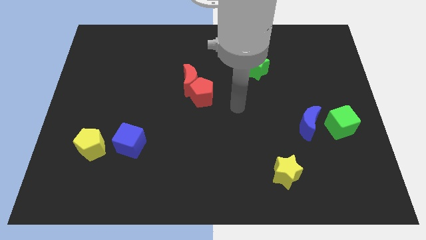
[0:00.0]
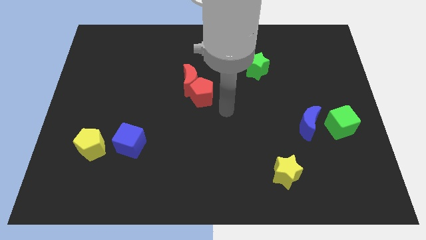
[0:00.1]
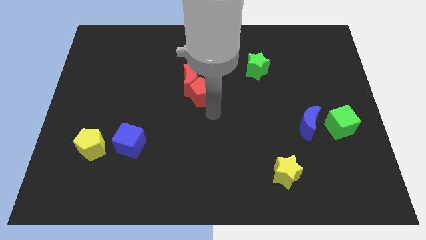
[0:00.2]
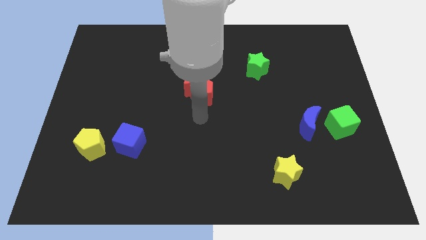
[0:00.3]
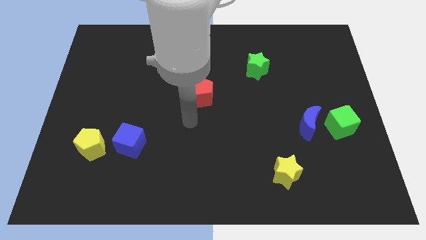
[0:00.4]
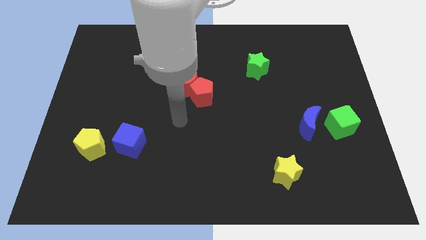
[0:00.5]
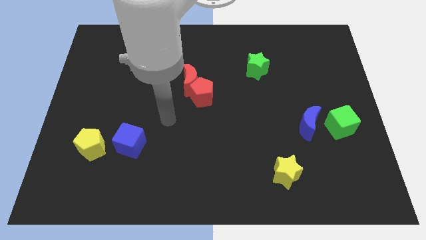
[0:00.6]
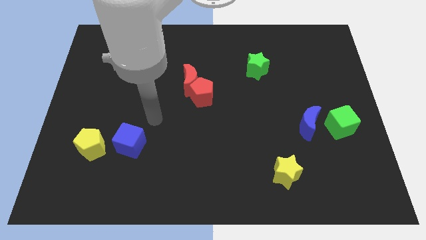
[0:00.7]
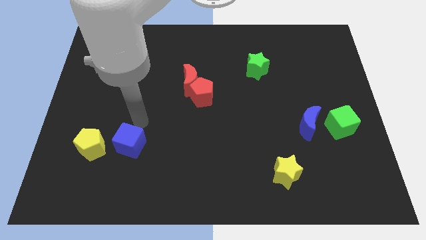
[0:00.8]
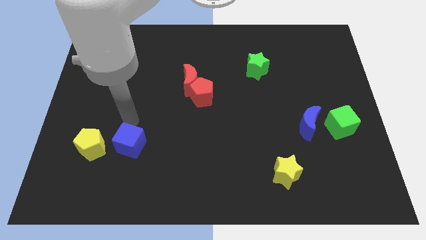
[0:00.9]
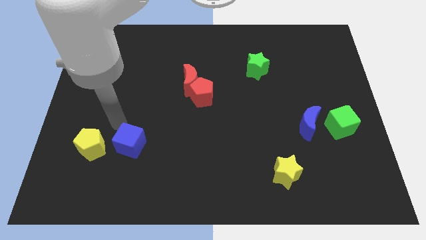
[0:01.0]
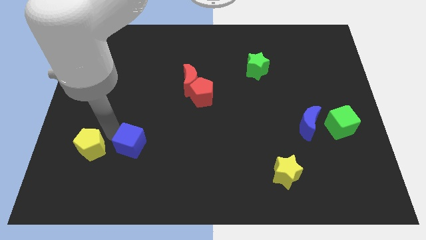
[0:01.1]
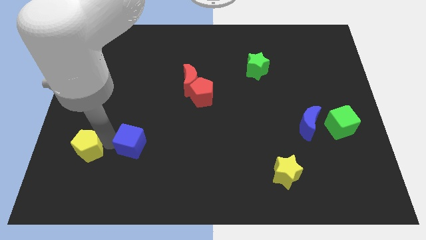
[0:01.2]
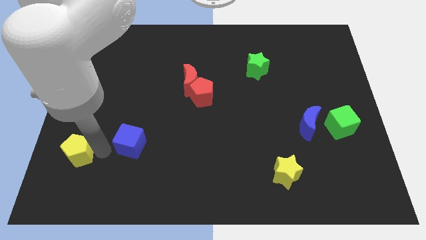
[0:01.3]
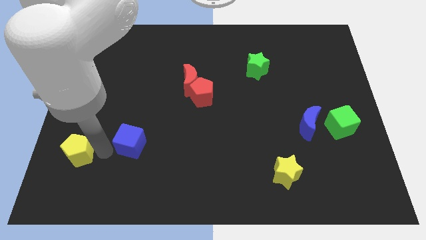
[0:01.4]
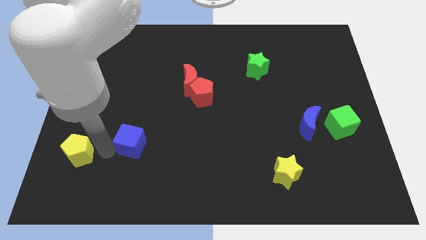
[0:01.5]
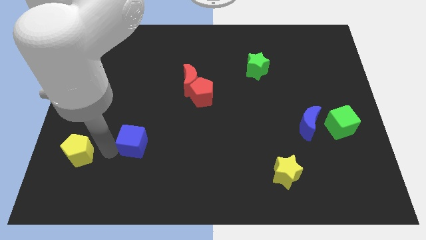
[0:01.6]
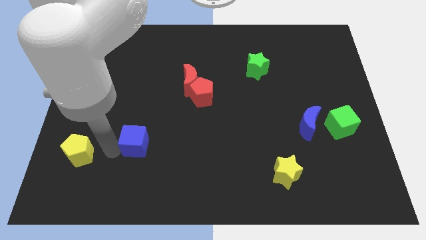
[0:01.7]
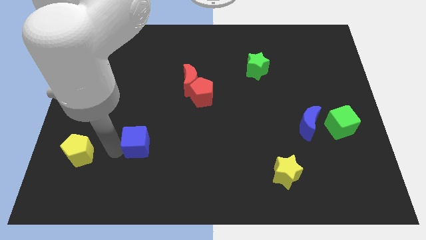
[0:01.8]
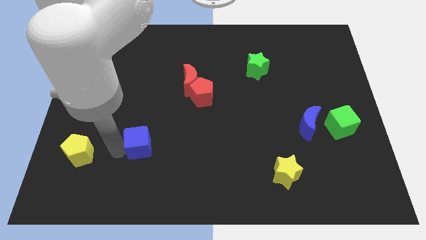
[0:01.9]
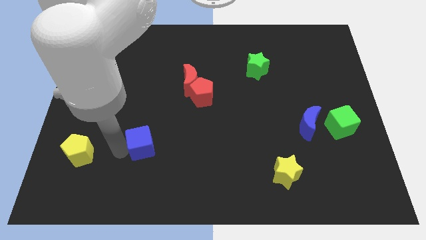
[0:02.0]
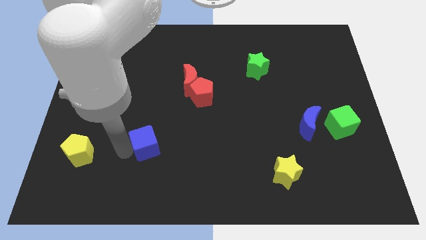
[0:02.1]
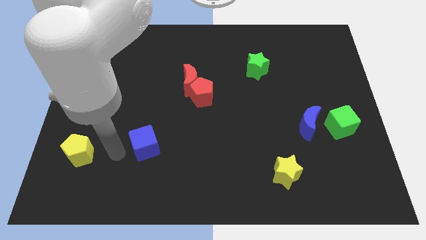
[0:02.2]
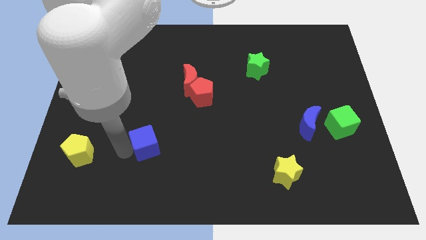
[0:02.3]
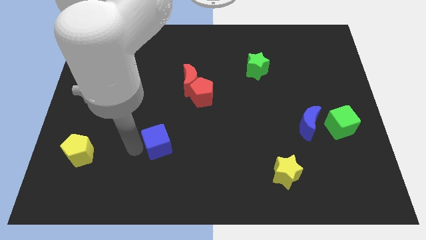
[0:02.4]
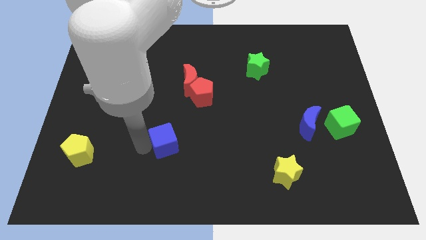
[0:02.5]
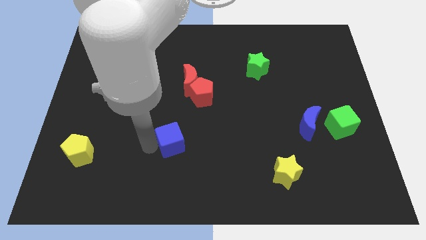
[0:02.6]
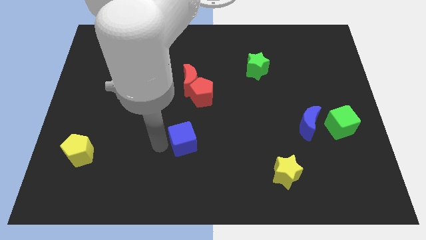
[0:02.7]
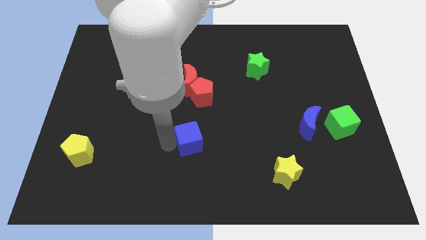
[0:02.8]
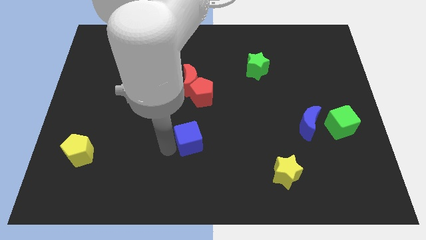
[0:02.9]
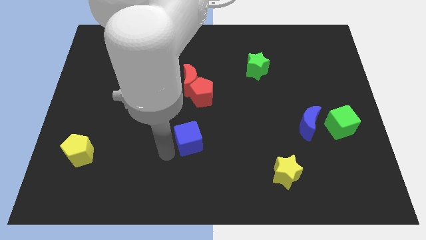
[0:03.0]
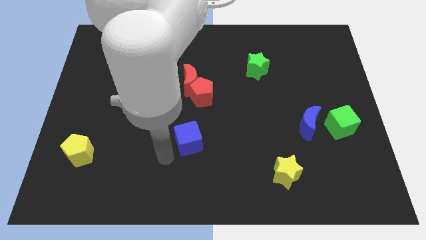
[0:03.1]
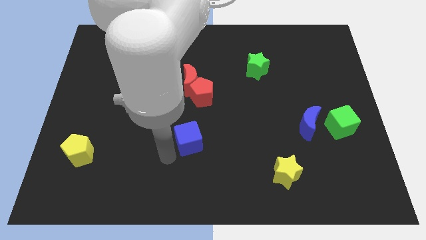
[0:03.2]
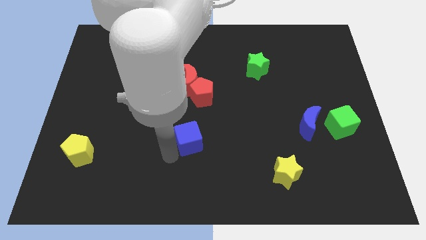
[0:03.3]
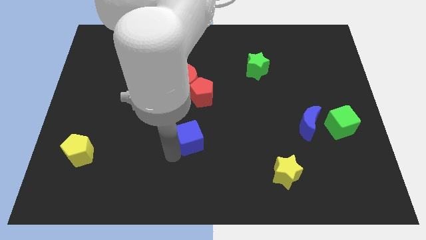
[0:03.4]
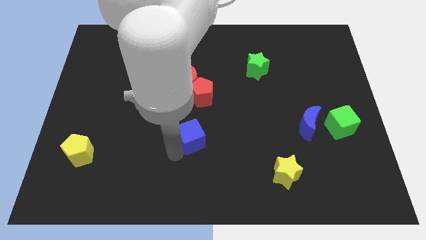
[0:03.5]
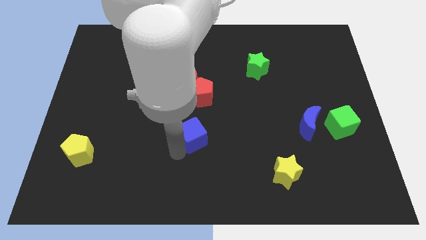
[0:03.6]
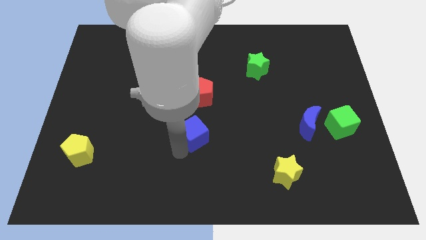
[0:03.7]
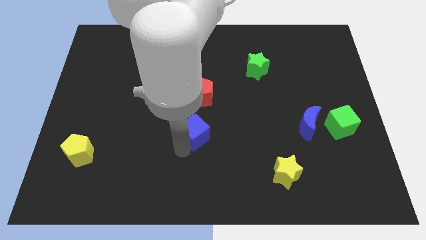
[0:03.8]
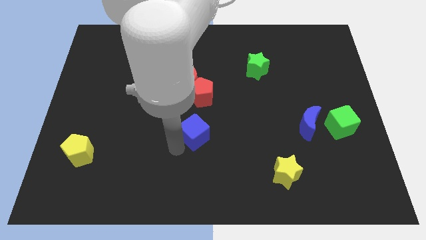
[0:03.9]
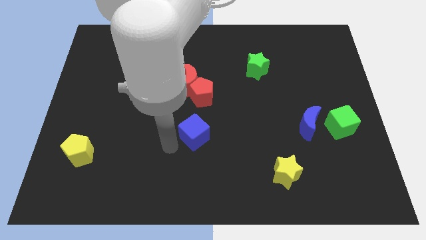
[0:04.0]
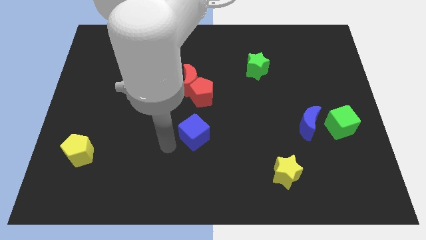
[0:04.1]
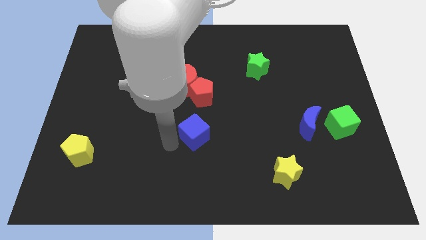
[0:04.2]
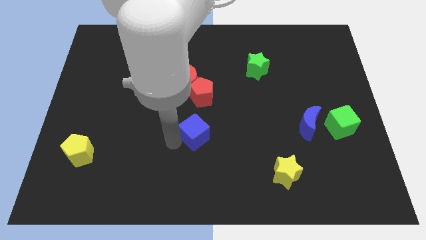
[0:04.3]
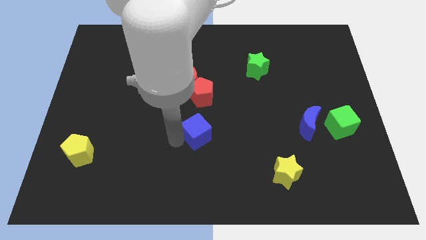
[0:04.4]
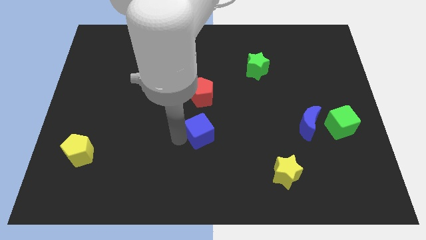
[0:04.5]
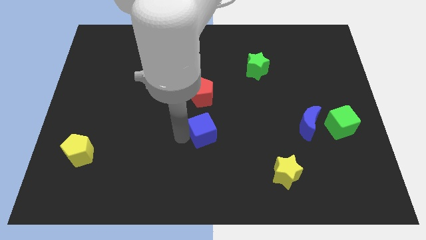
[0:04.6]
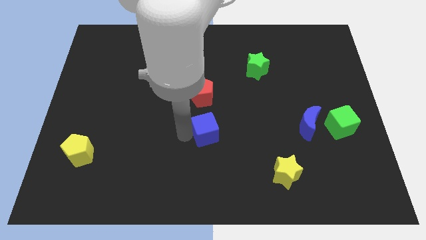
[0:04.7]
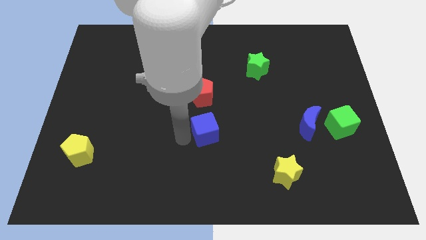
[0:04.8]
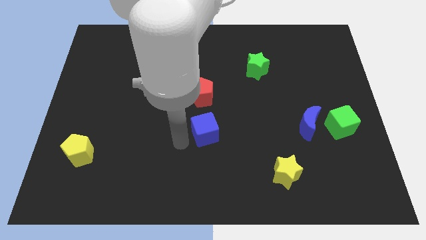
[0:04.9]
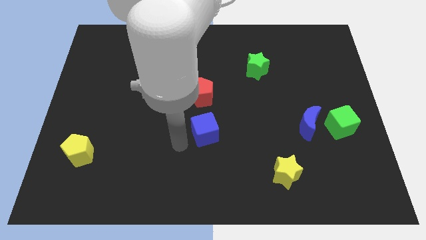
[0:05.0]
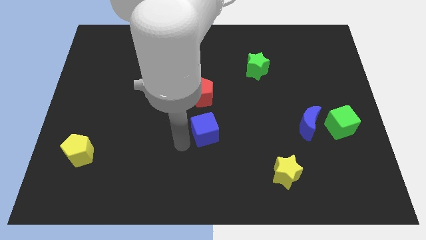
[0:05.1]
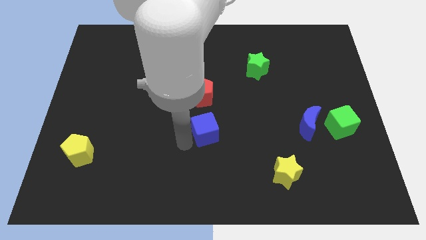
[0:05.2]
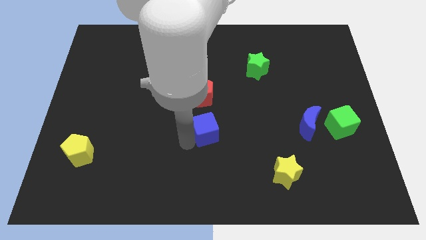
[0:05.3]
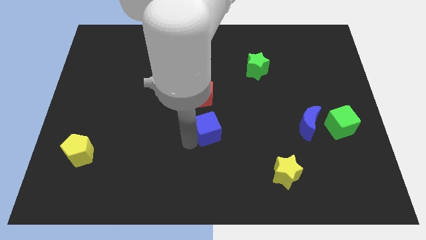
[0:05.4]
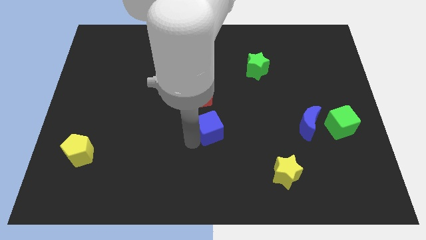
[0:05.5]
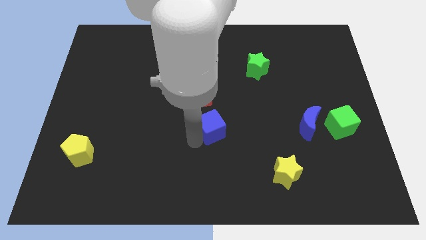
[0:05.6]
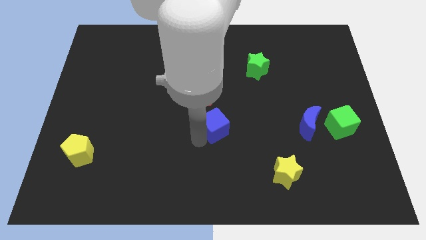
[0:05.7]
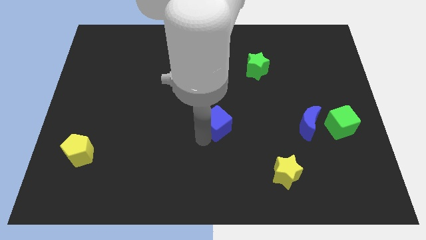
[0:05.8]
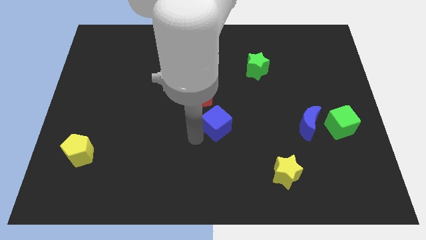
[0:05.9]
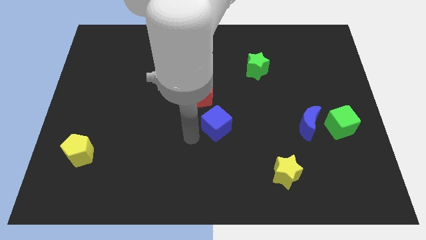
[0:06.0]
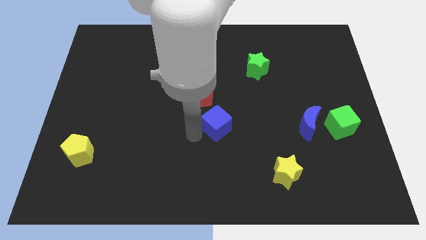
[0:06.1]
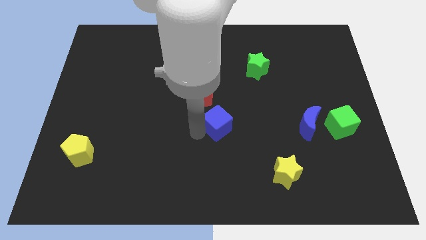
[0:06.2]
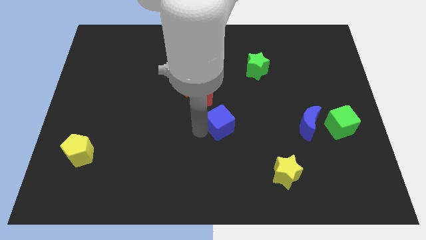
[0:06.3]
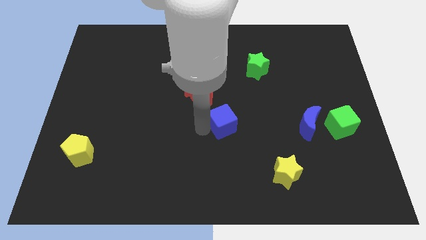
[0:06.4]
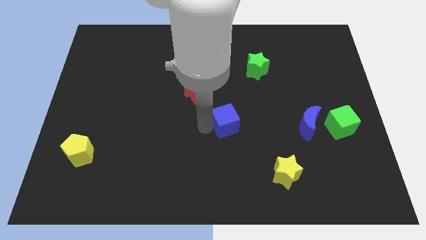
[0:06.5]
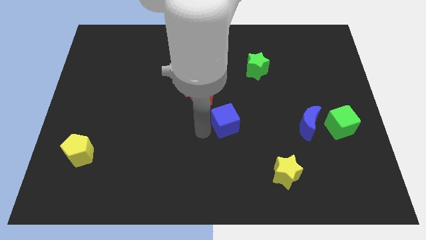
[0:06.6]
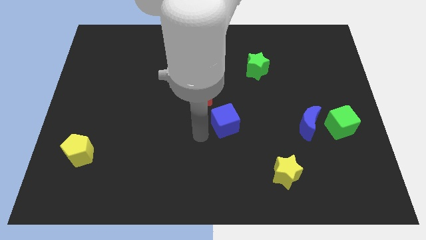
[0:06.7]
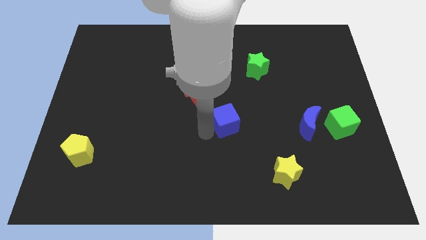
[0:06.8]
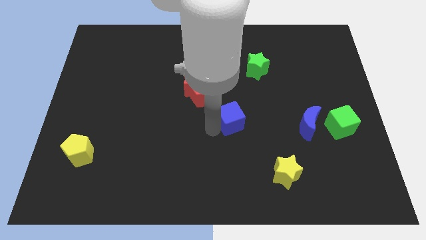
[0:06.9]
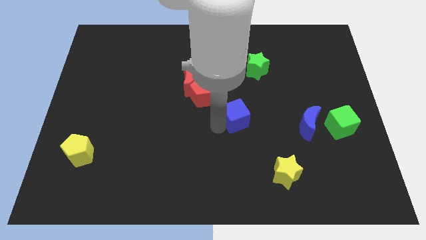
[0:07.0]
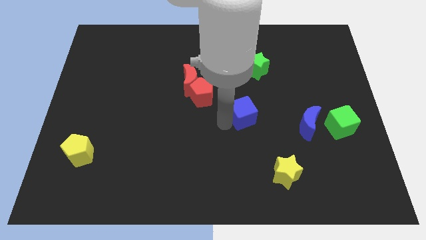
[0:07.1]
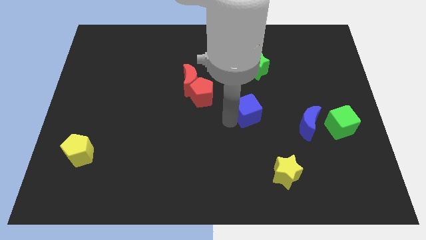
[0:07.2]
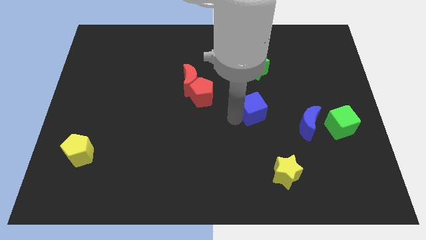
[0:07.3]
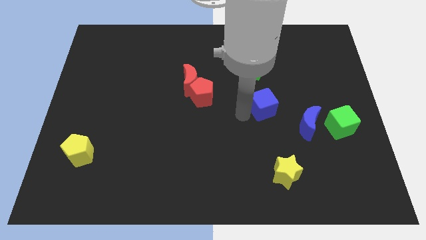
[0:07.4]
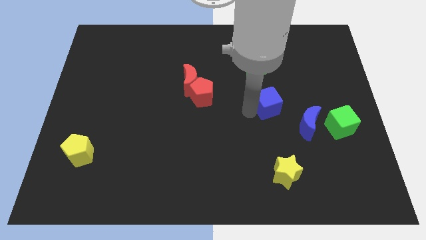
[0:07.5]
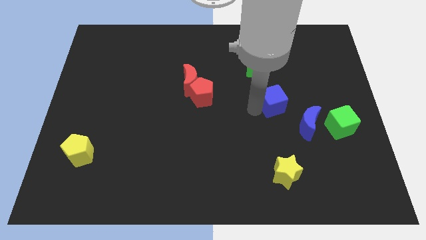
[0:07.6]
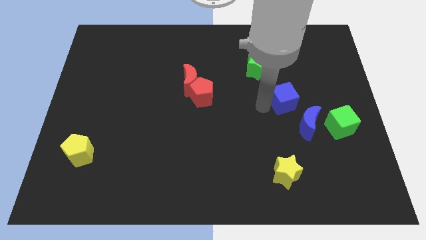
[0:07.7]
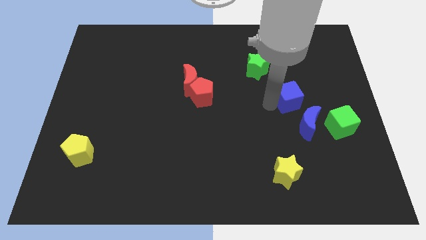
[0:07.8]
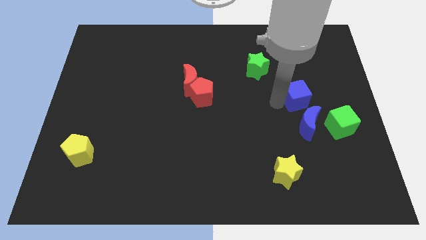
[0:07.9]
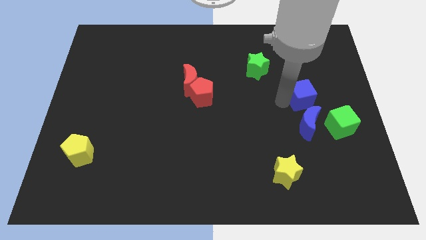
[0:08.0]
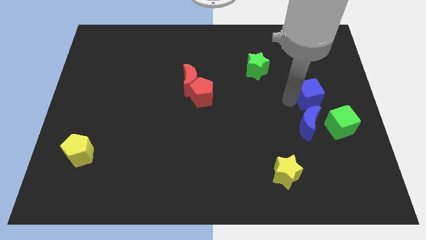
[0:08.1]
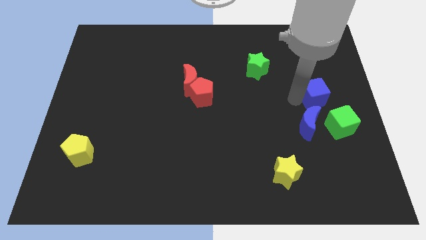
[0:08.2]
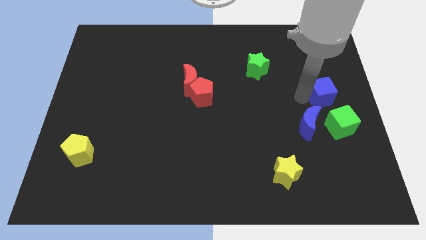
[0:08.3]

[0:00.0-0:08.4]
slide the blue cube to the right side
